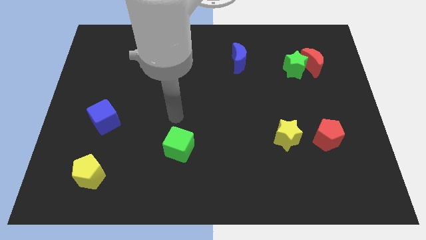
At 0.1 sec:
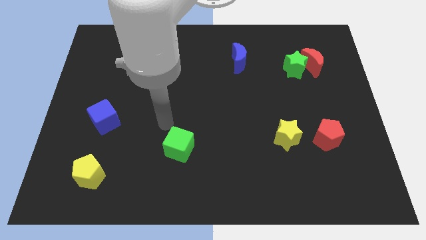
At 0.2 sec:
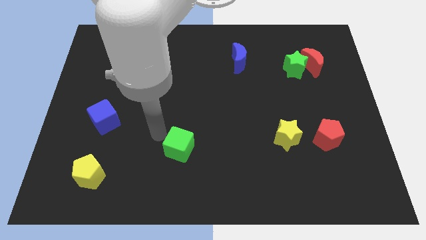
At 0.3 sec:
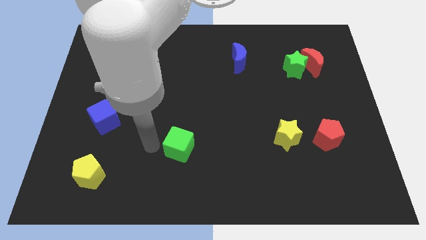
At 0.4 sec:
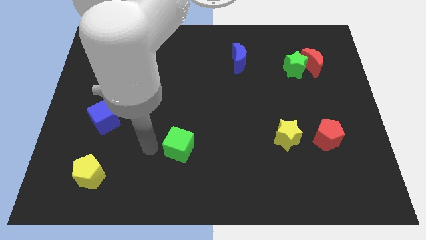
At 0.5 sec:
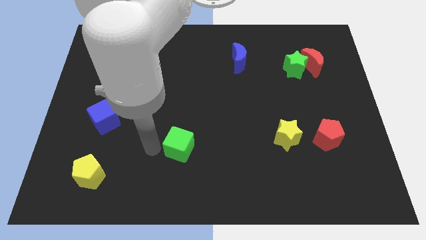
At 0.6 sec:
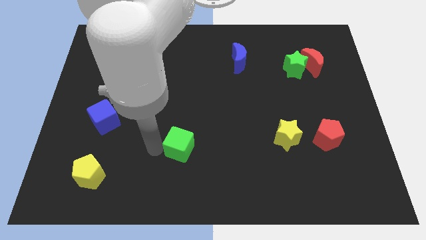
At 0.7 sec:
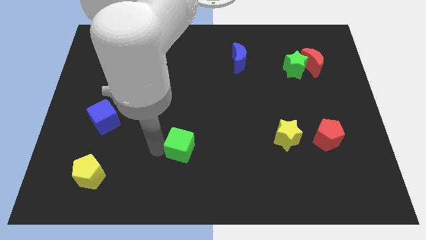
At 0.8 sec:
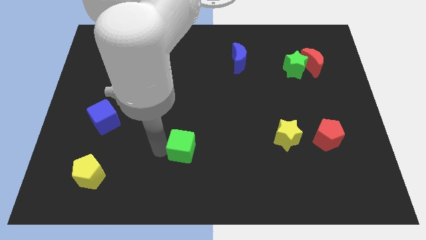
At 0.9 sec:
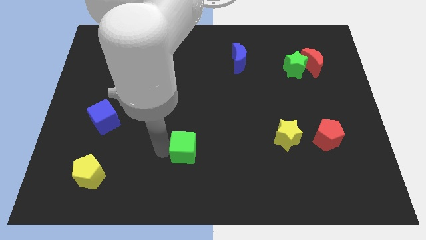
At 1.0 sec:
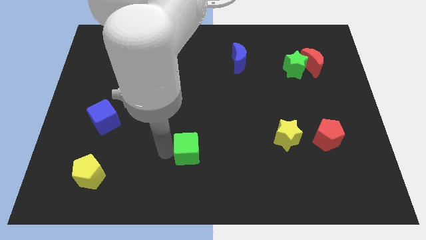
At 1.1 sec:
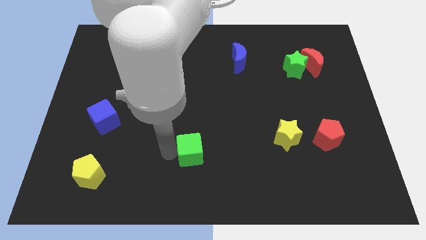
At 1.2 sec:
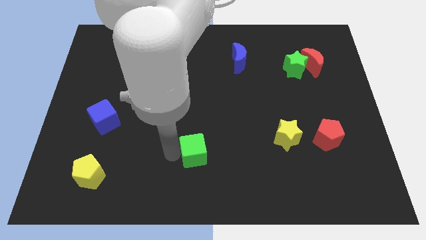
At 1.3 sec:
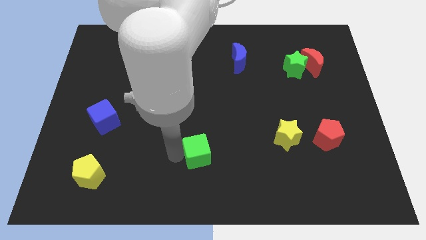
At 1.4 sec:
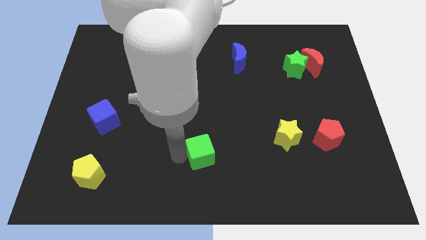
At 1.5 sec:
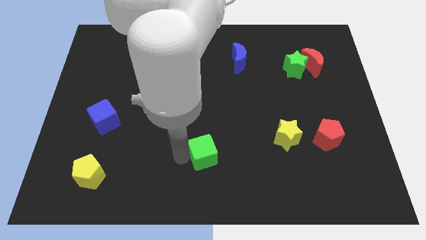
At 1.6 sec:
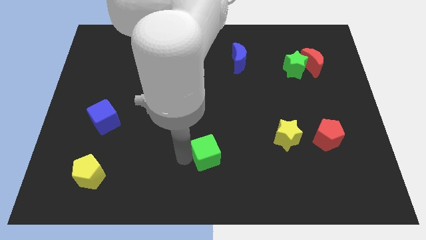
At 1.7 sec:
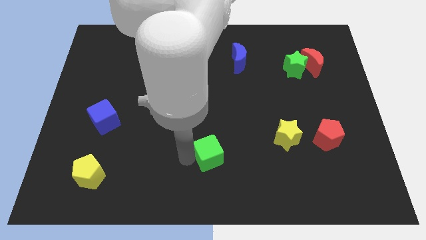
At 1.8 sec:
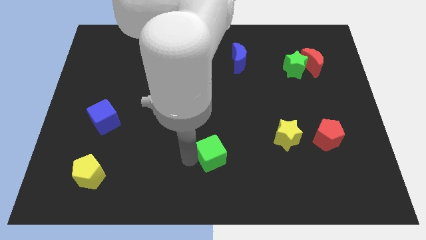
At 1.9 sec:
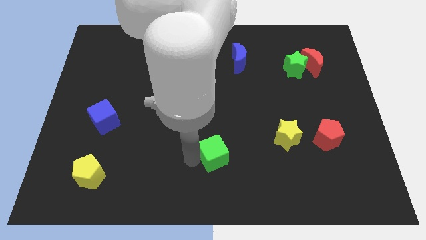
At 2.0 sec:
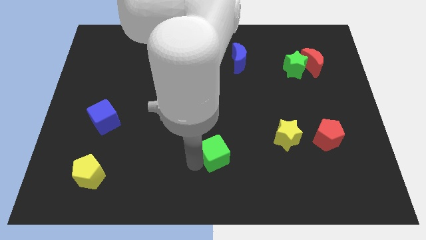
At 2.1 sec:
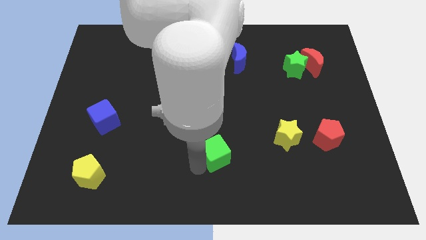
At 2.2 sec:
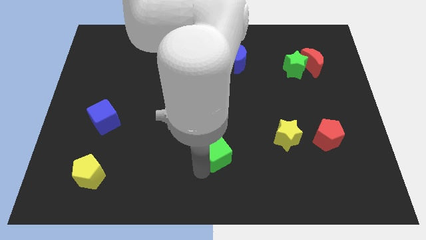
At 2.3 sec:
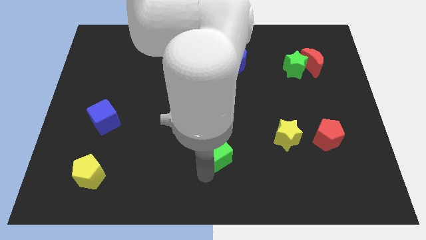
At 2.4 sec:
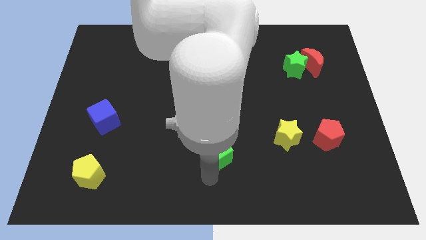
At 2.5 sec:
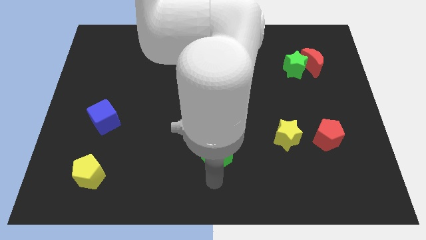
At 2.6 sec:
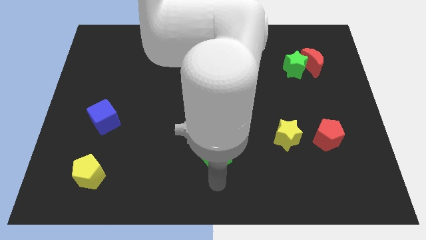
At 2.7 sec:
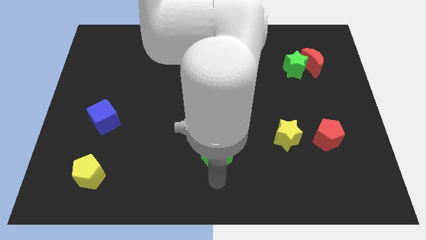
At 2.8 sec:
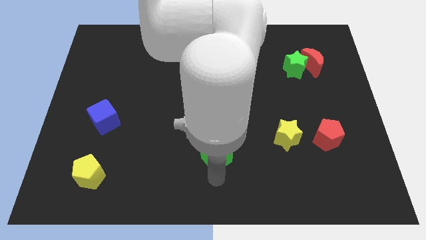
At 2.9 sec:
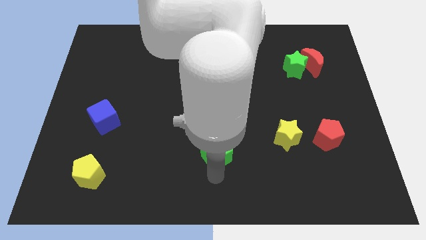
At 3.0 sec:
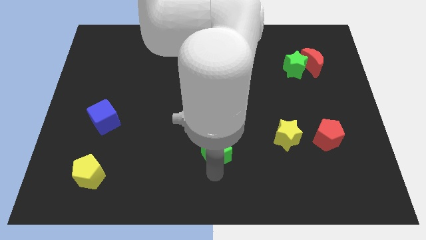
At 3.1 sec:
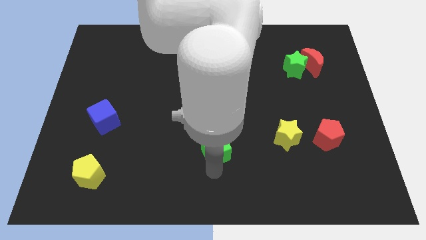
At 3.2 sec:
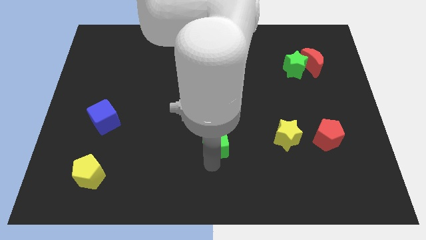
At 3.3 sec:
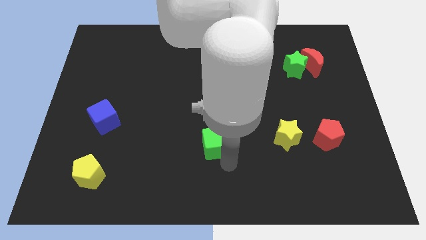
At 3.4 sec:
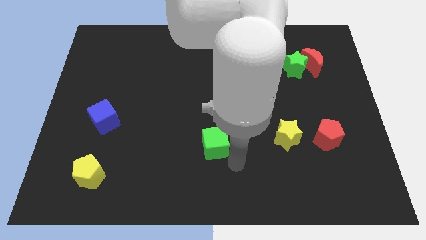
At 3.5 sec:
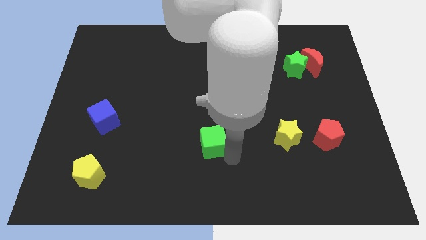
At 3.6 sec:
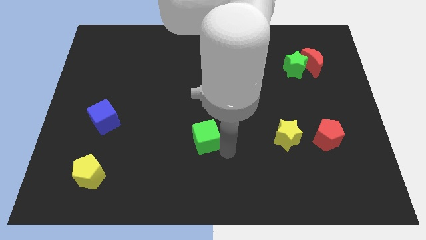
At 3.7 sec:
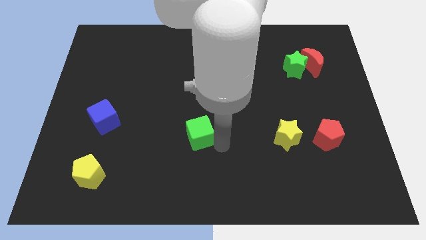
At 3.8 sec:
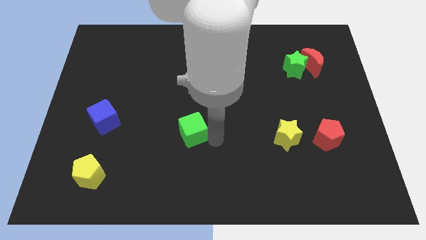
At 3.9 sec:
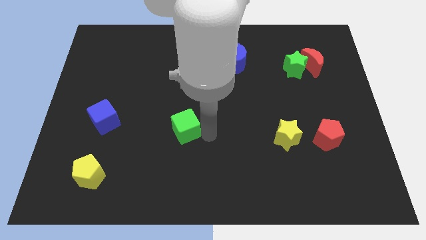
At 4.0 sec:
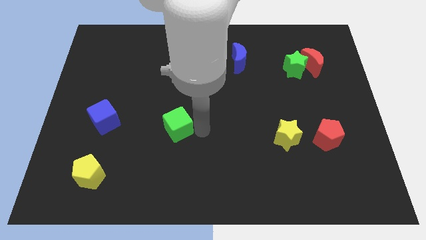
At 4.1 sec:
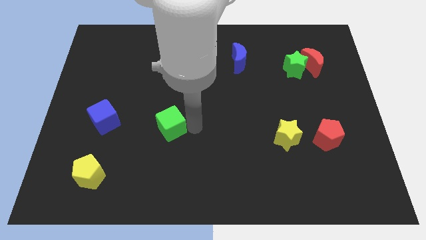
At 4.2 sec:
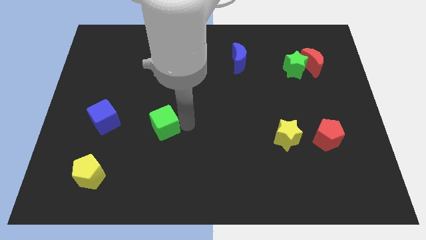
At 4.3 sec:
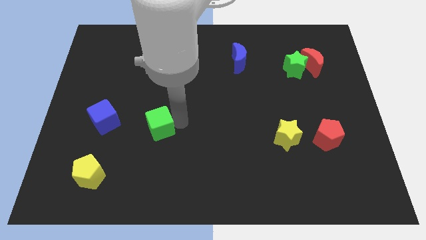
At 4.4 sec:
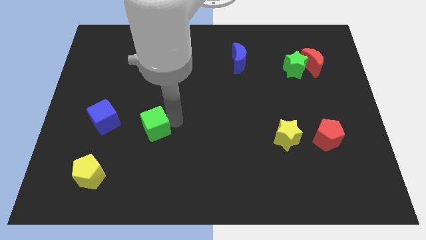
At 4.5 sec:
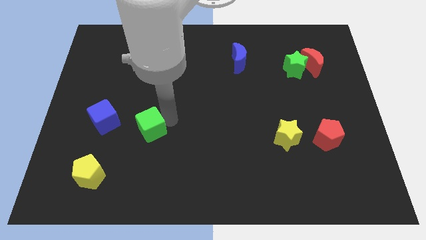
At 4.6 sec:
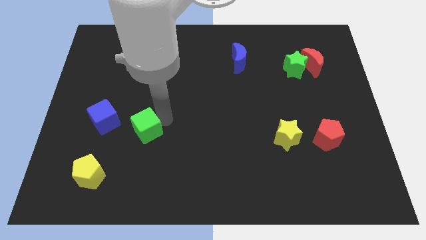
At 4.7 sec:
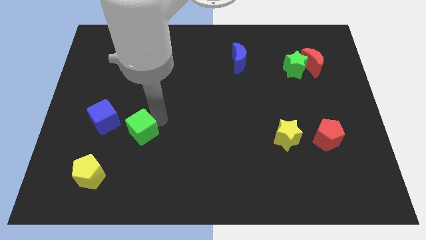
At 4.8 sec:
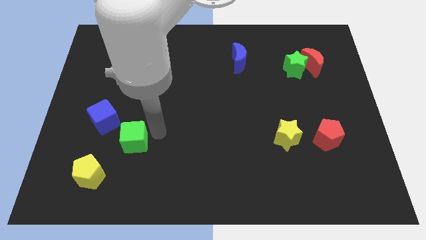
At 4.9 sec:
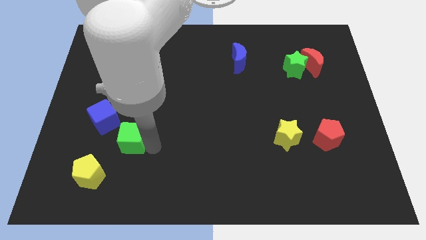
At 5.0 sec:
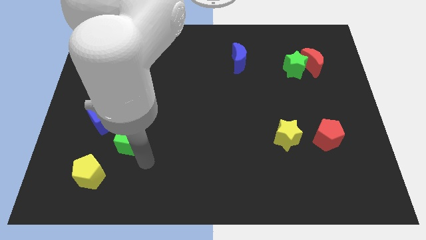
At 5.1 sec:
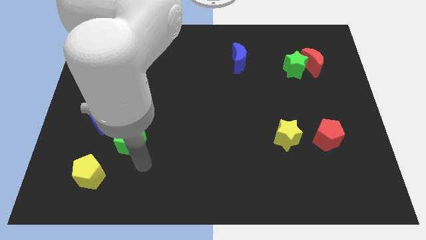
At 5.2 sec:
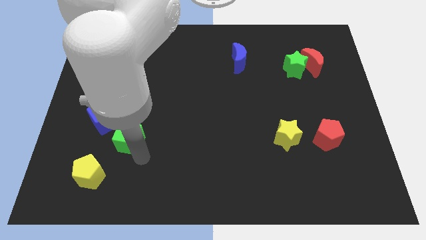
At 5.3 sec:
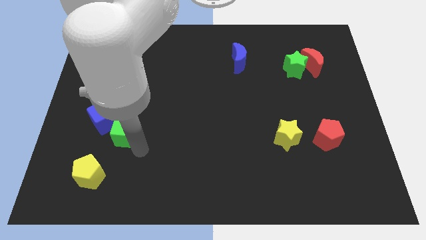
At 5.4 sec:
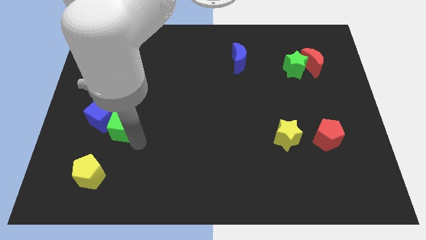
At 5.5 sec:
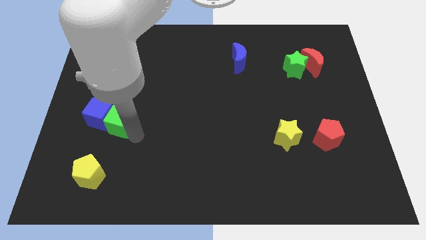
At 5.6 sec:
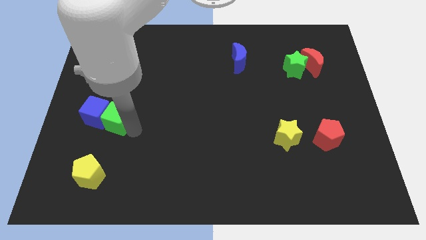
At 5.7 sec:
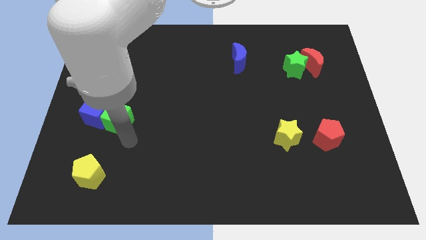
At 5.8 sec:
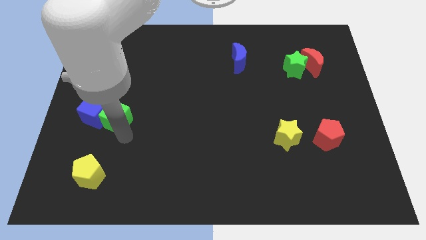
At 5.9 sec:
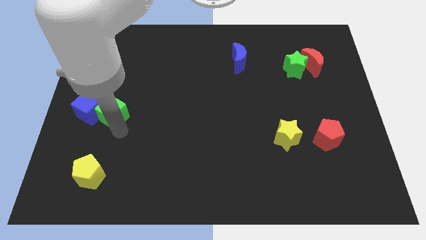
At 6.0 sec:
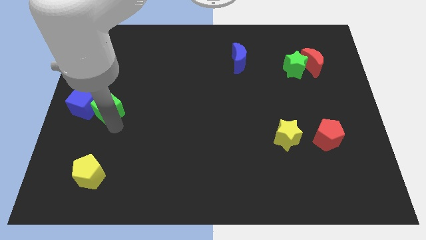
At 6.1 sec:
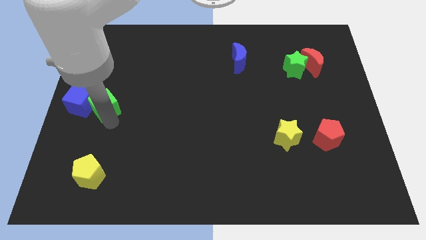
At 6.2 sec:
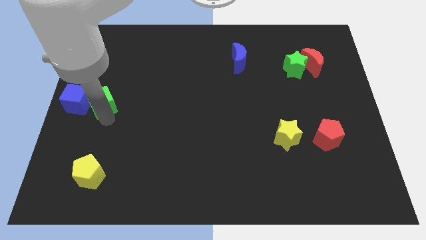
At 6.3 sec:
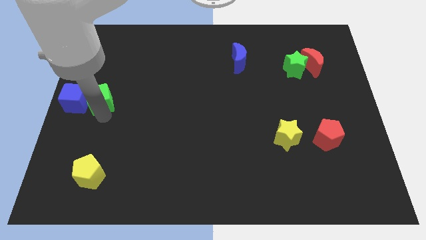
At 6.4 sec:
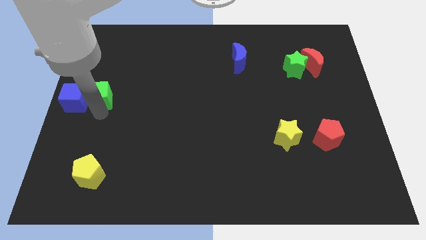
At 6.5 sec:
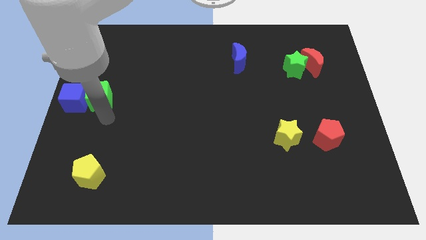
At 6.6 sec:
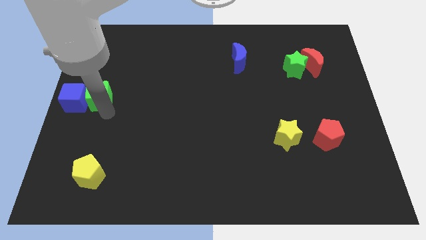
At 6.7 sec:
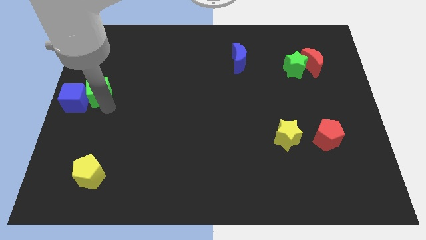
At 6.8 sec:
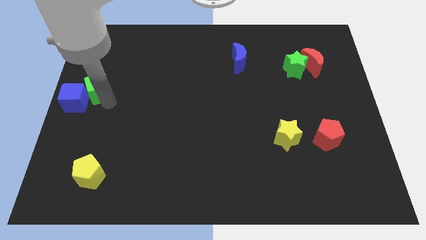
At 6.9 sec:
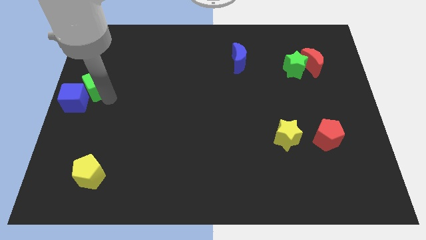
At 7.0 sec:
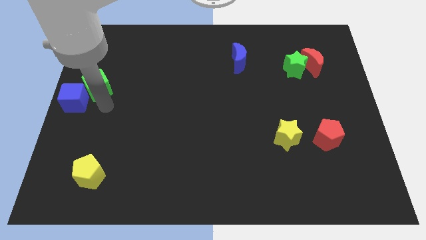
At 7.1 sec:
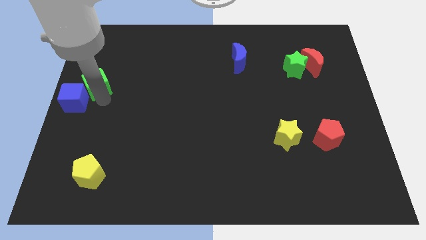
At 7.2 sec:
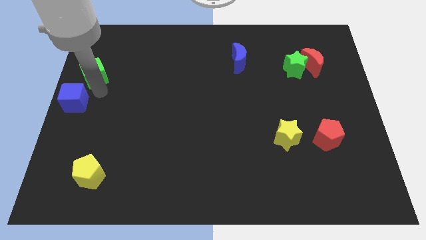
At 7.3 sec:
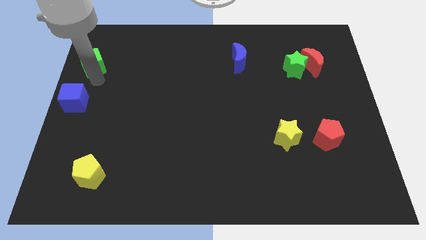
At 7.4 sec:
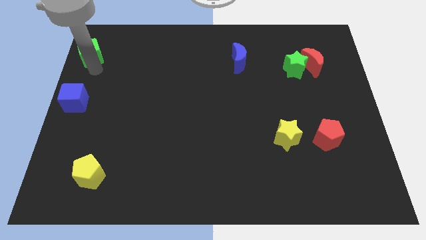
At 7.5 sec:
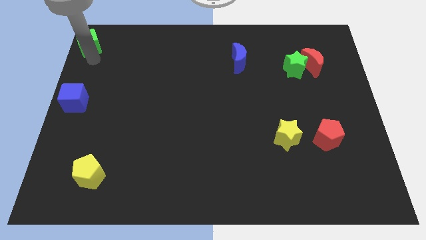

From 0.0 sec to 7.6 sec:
push the green cube to the top left of the board
